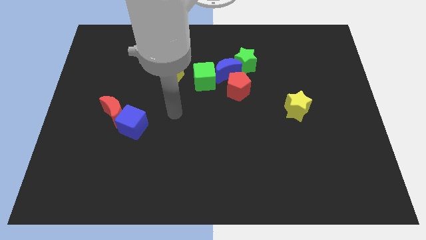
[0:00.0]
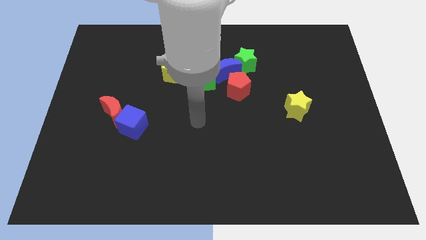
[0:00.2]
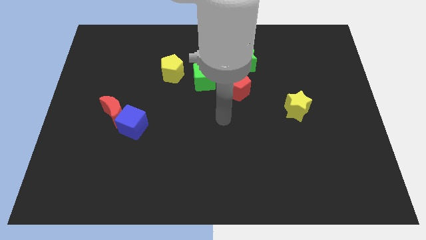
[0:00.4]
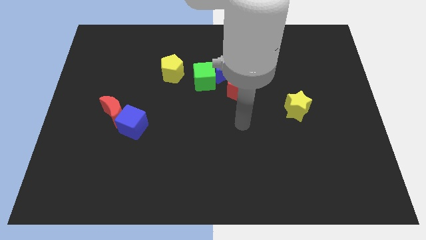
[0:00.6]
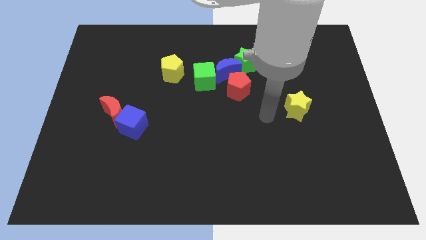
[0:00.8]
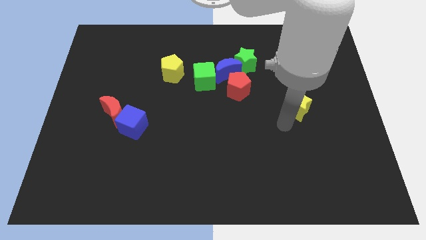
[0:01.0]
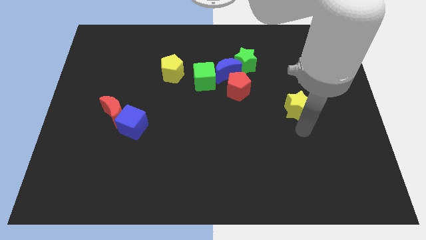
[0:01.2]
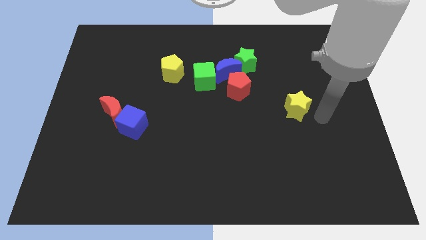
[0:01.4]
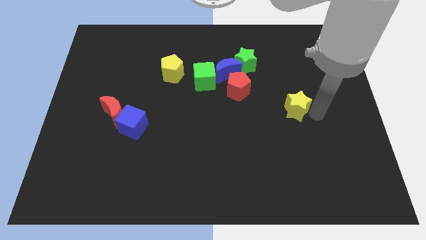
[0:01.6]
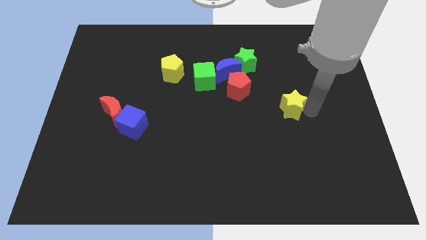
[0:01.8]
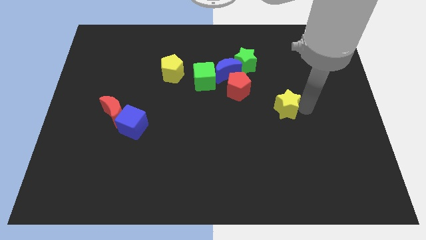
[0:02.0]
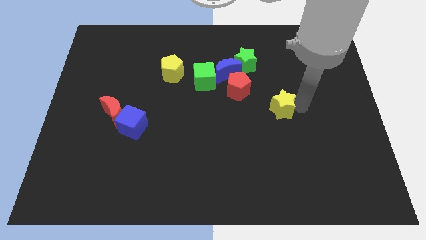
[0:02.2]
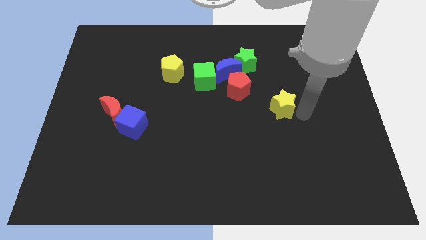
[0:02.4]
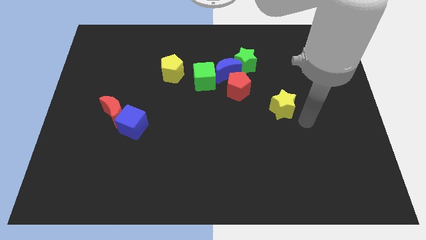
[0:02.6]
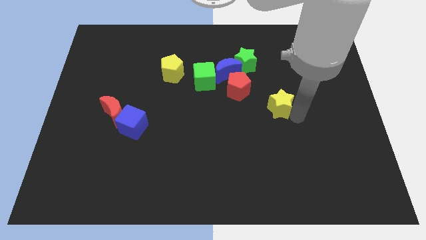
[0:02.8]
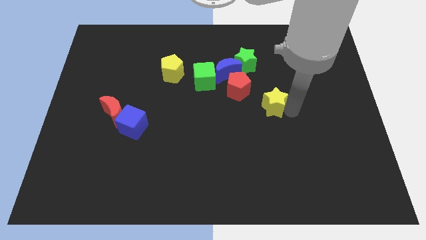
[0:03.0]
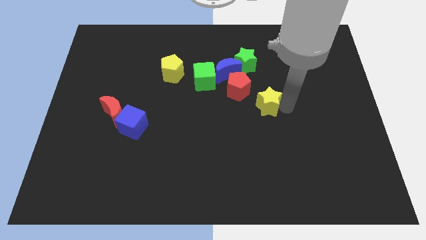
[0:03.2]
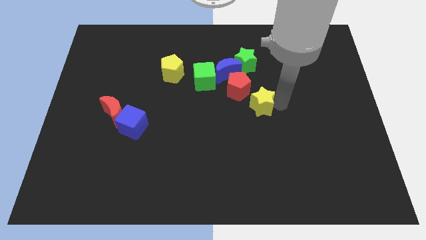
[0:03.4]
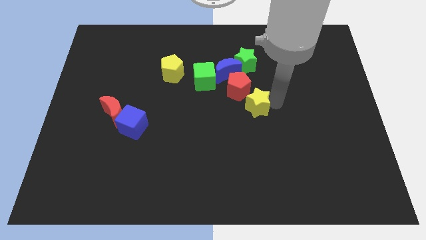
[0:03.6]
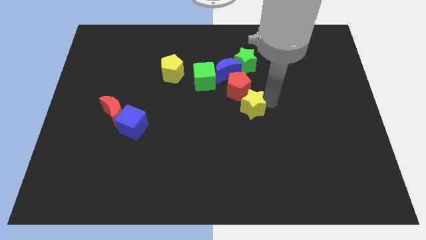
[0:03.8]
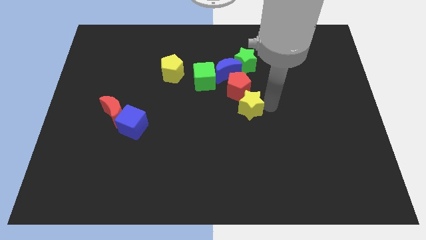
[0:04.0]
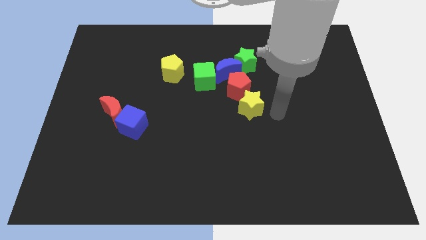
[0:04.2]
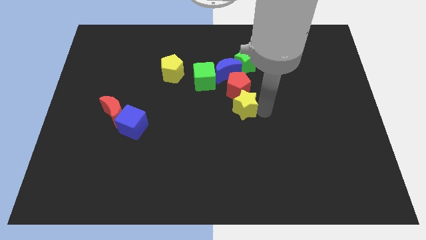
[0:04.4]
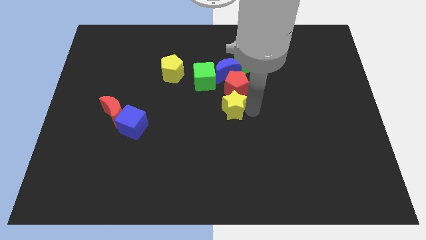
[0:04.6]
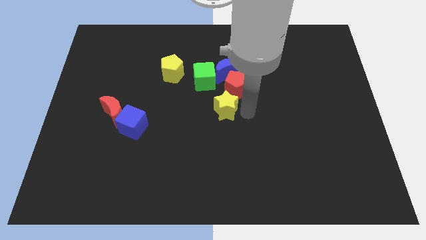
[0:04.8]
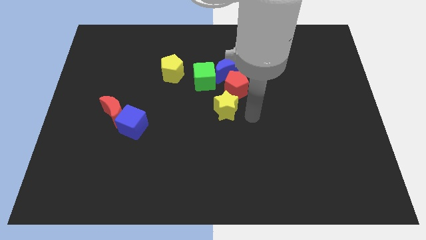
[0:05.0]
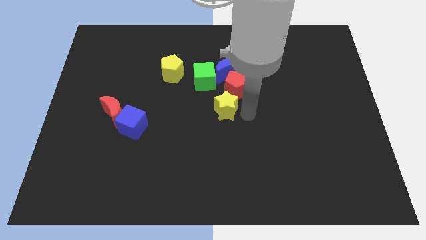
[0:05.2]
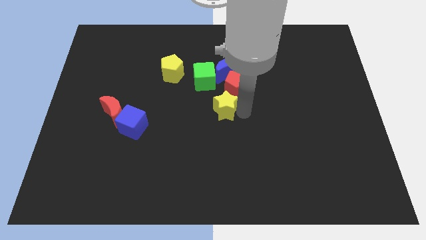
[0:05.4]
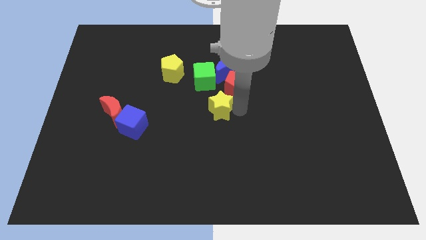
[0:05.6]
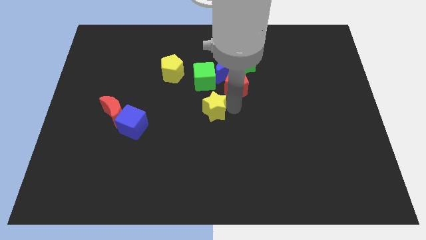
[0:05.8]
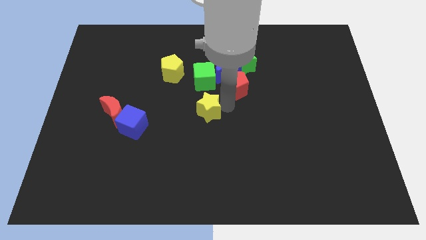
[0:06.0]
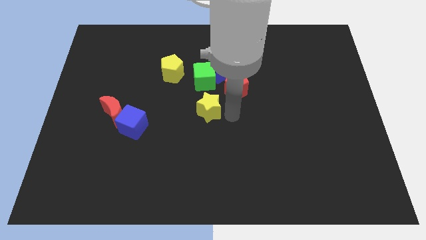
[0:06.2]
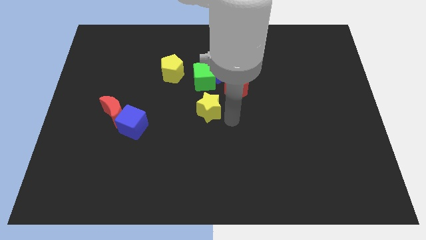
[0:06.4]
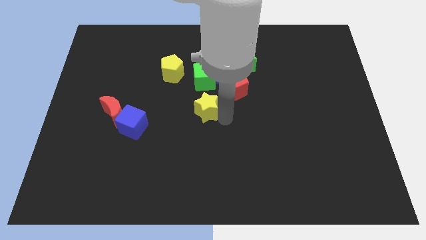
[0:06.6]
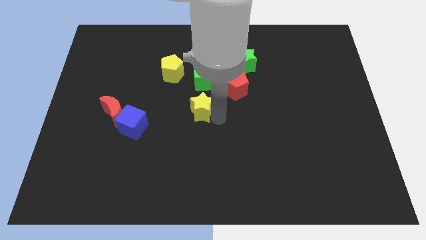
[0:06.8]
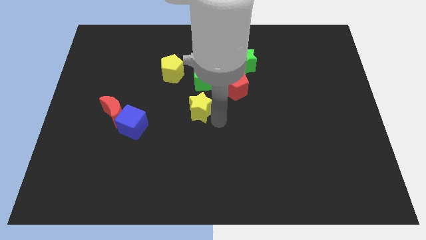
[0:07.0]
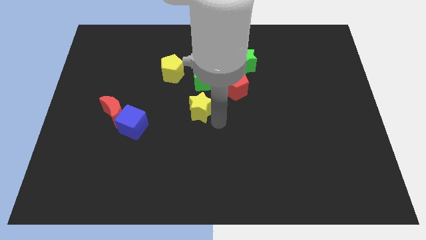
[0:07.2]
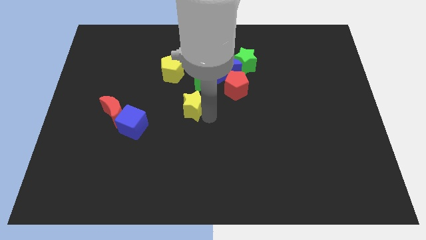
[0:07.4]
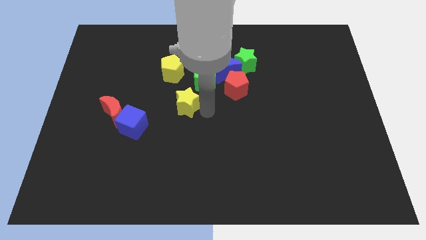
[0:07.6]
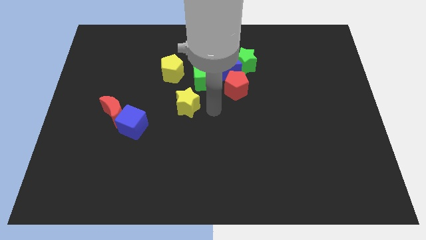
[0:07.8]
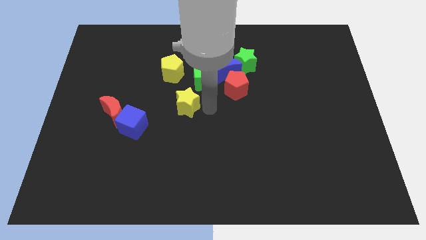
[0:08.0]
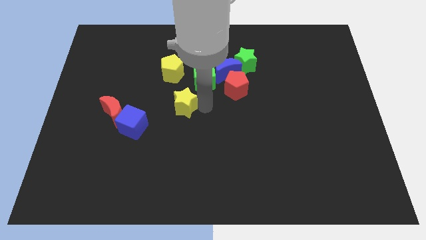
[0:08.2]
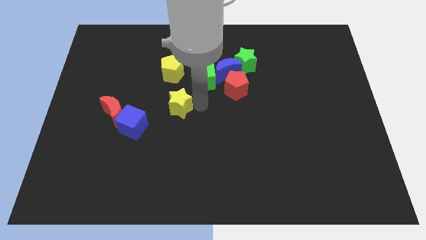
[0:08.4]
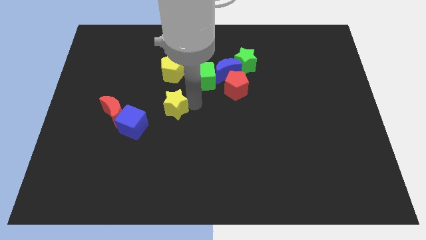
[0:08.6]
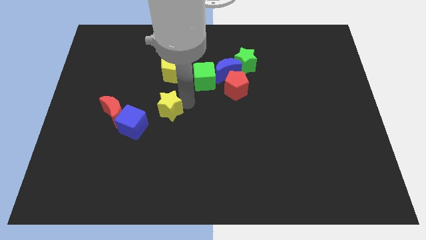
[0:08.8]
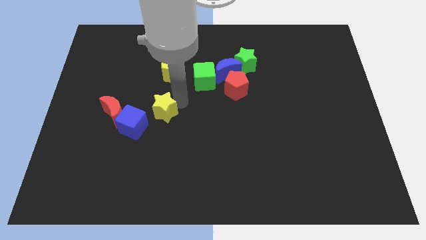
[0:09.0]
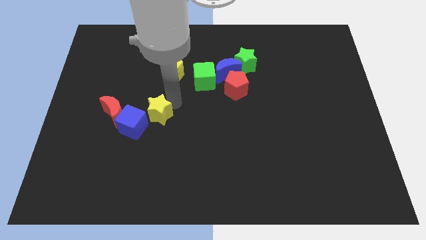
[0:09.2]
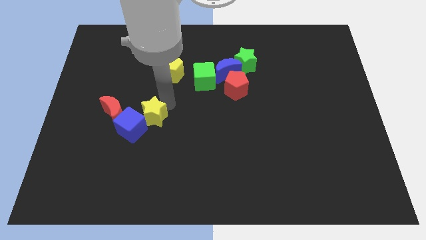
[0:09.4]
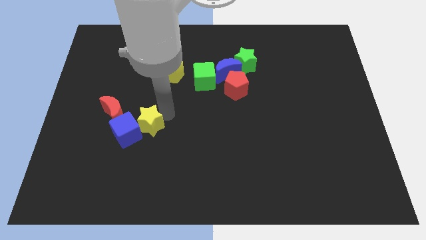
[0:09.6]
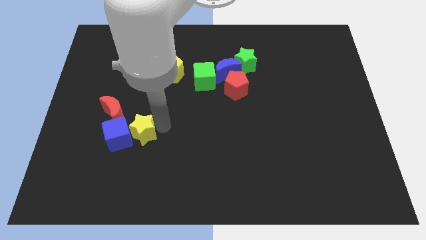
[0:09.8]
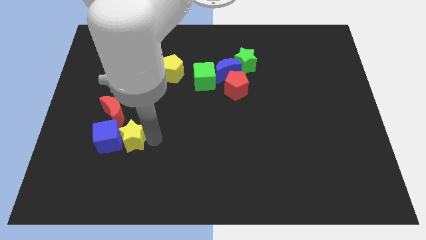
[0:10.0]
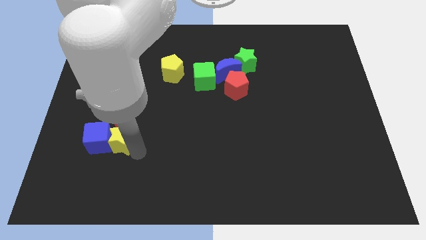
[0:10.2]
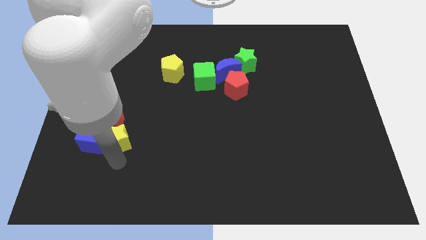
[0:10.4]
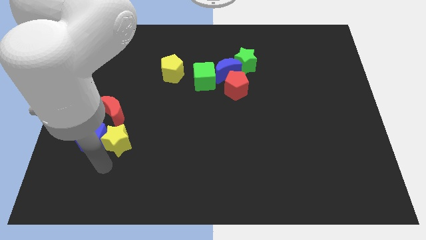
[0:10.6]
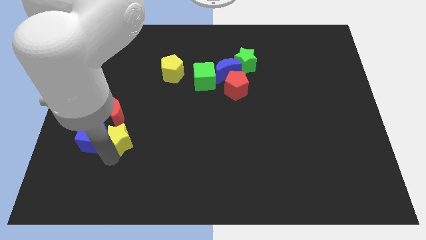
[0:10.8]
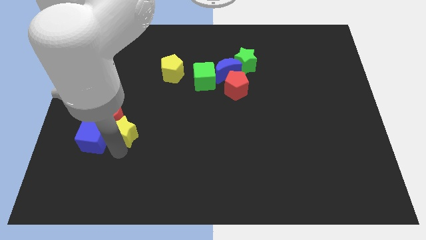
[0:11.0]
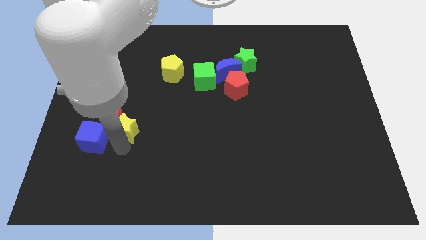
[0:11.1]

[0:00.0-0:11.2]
put the yellow star towards the red moon

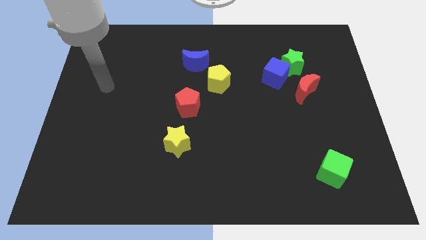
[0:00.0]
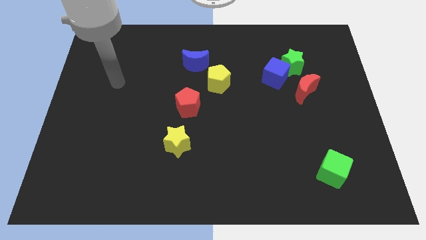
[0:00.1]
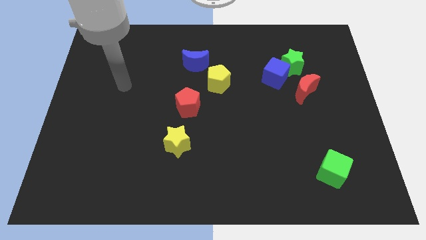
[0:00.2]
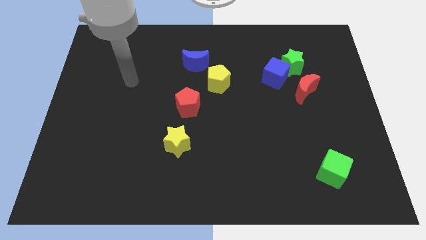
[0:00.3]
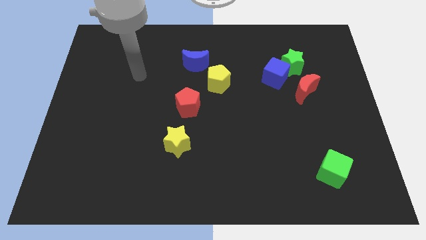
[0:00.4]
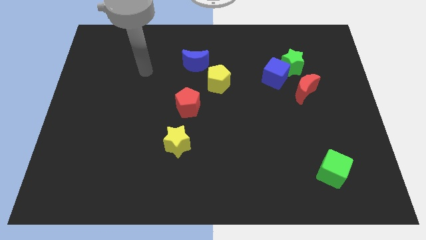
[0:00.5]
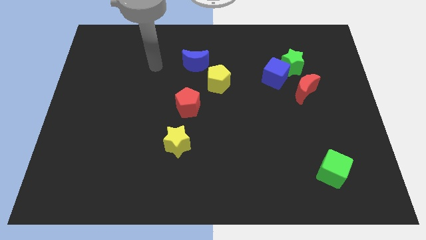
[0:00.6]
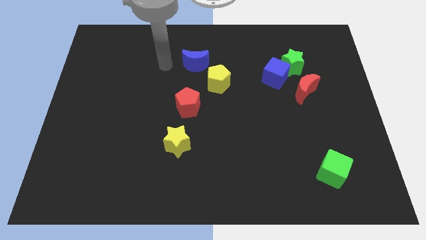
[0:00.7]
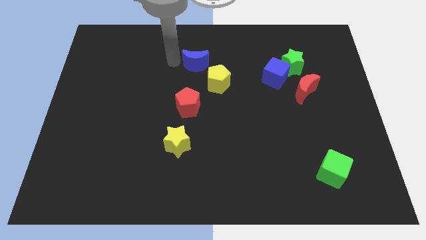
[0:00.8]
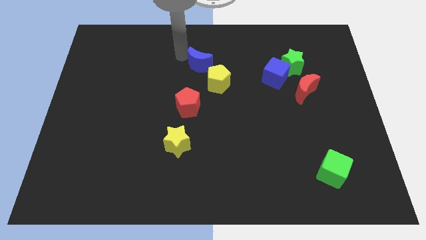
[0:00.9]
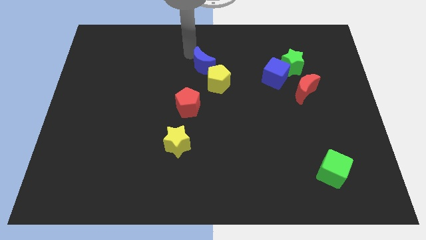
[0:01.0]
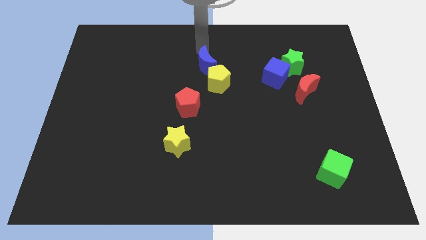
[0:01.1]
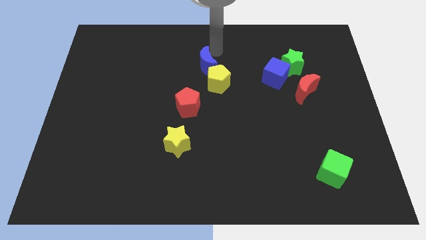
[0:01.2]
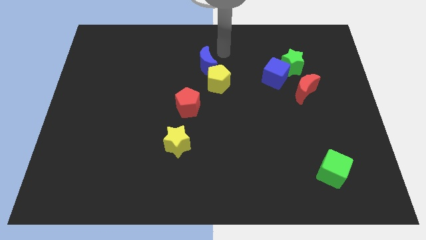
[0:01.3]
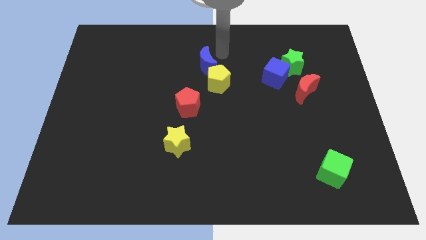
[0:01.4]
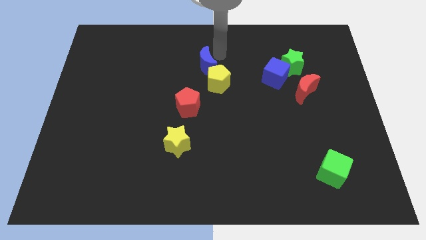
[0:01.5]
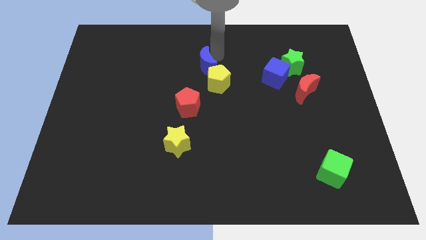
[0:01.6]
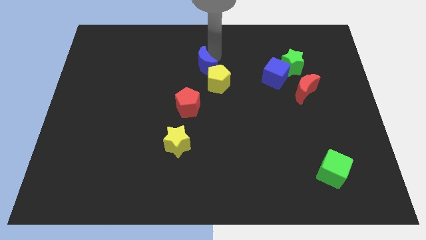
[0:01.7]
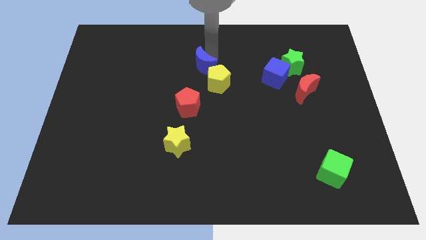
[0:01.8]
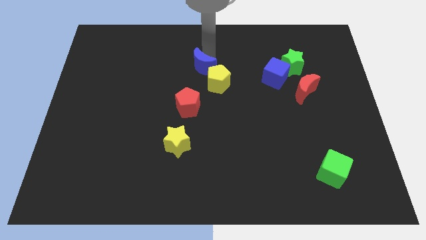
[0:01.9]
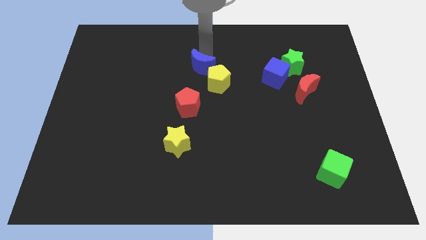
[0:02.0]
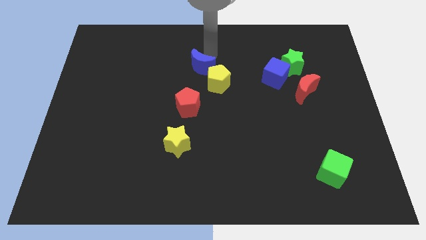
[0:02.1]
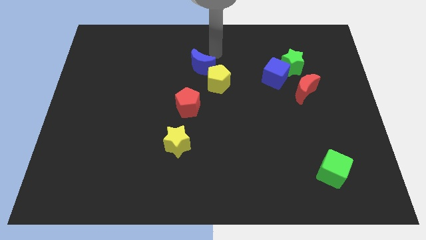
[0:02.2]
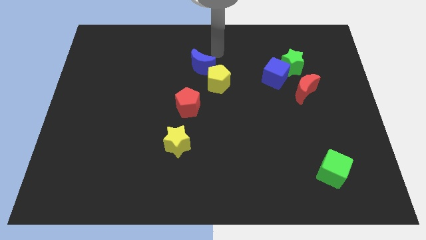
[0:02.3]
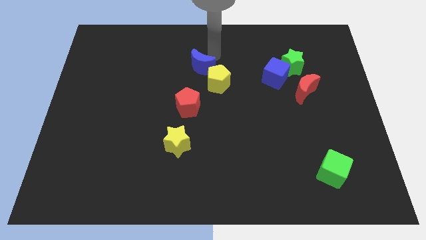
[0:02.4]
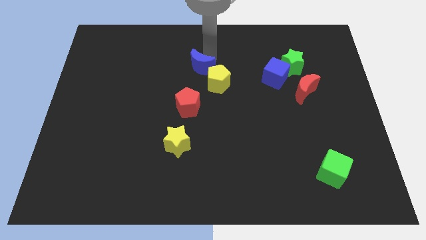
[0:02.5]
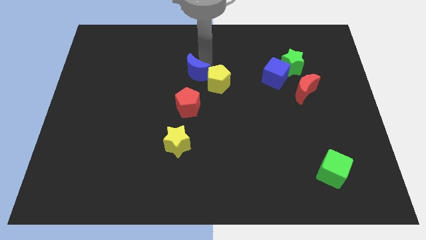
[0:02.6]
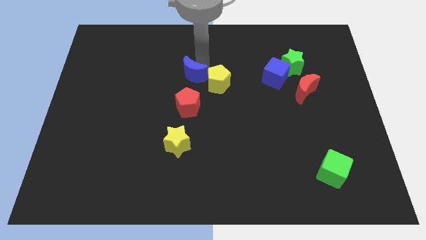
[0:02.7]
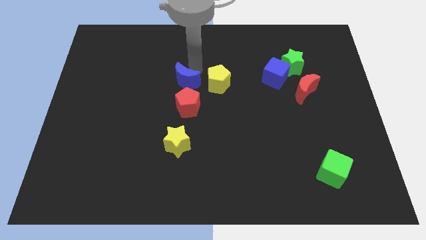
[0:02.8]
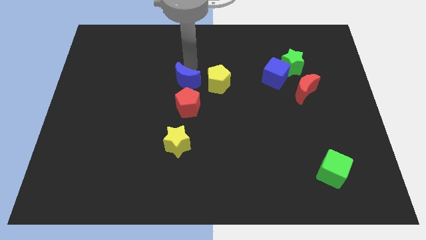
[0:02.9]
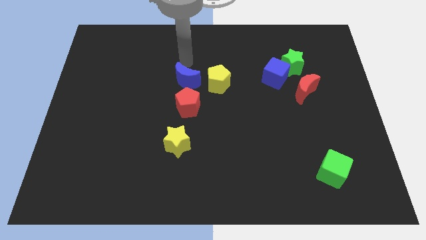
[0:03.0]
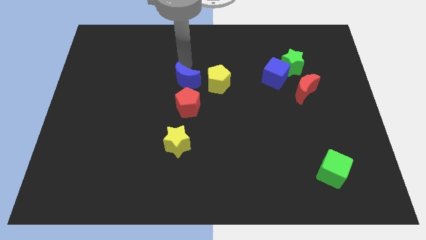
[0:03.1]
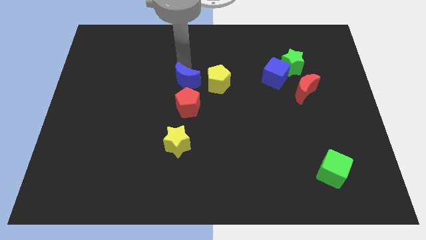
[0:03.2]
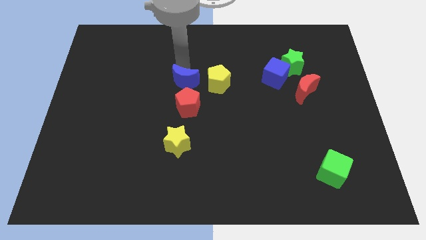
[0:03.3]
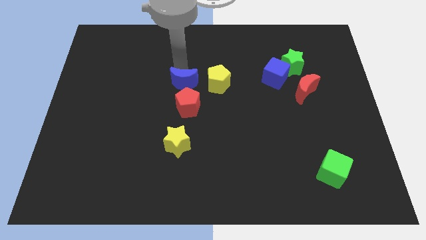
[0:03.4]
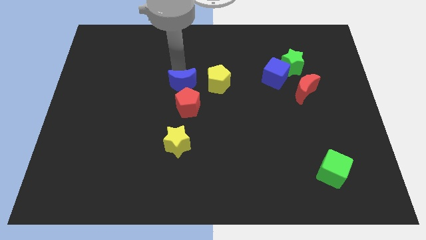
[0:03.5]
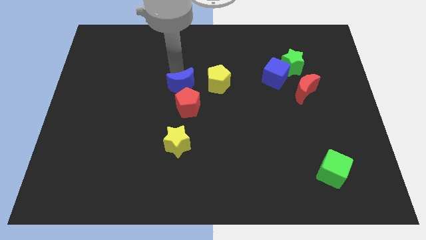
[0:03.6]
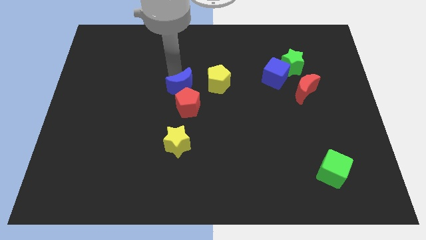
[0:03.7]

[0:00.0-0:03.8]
move the blue moon close to the red pentagon
